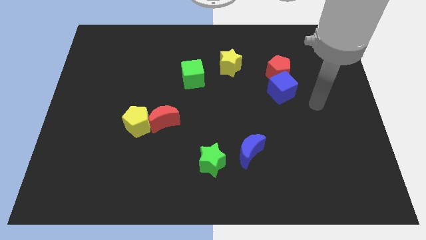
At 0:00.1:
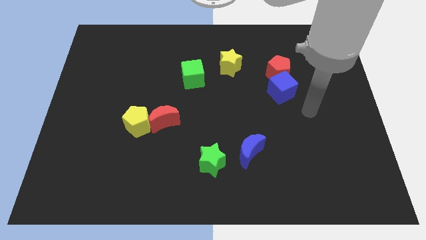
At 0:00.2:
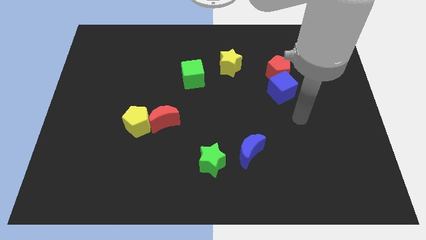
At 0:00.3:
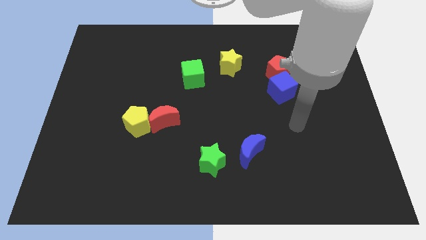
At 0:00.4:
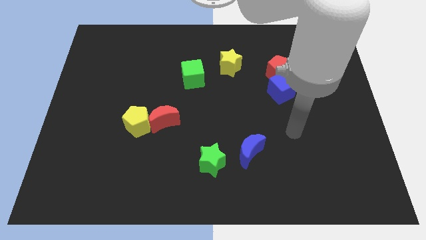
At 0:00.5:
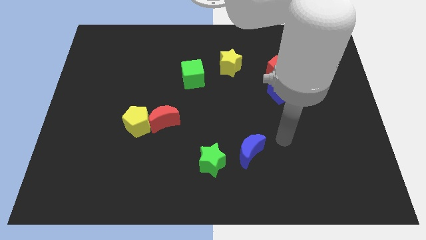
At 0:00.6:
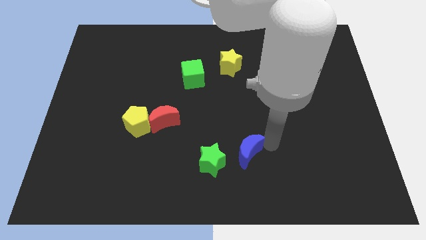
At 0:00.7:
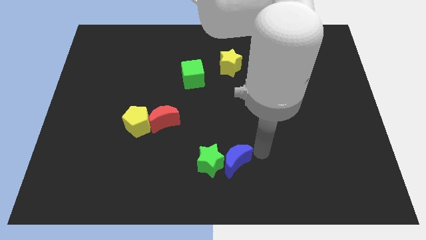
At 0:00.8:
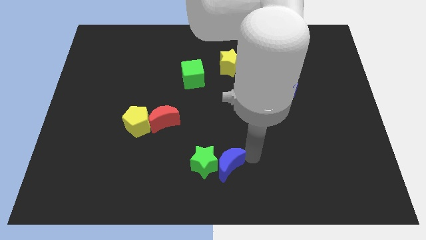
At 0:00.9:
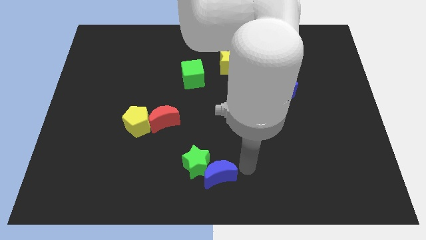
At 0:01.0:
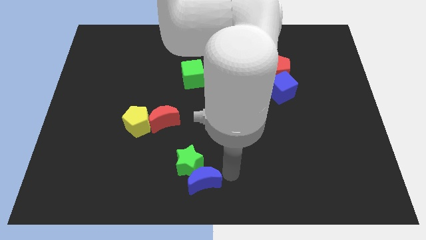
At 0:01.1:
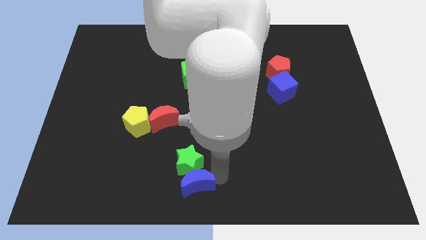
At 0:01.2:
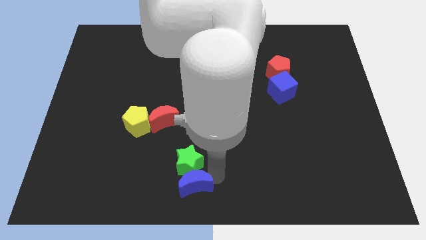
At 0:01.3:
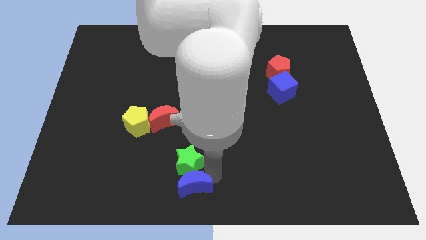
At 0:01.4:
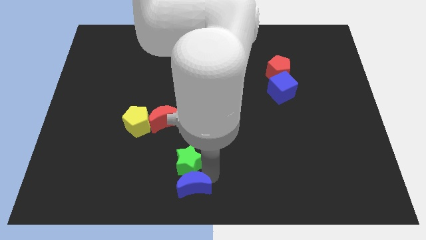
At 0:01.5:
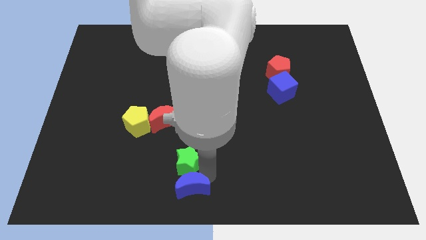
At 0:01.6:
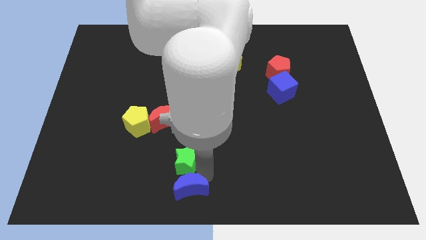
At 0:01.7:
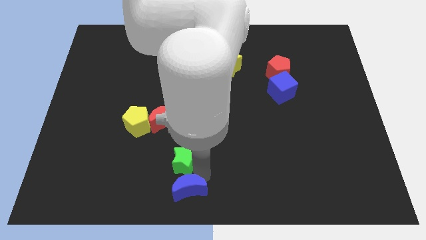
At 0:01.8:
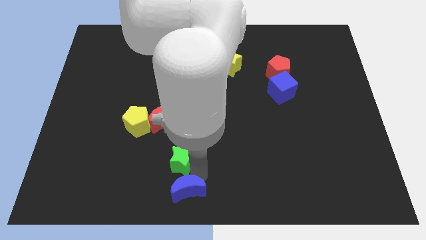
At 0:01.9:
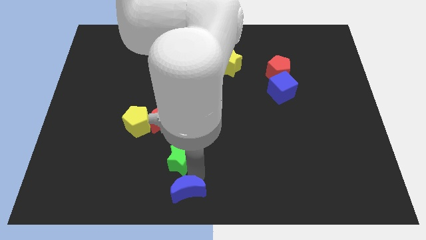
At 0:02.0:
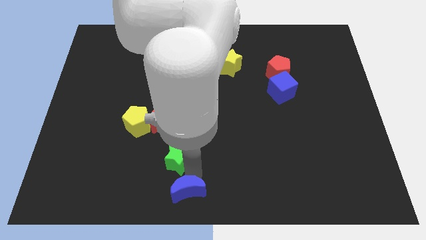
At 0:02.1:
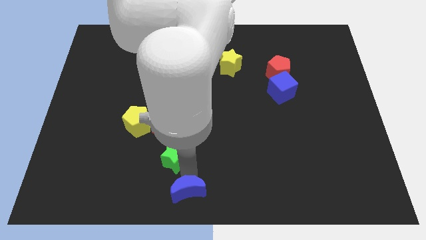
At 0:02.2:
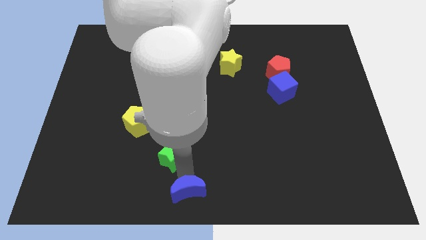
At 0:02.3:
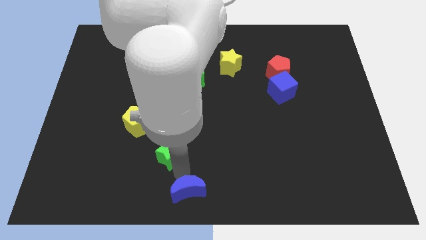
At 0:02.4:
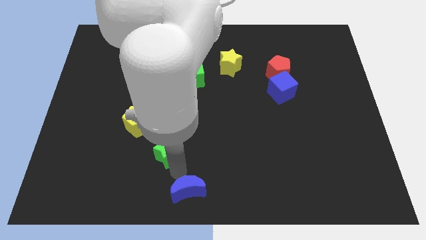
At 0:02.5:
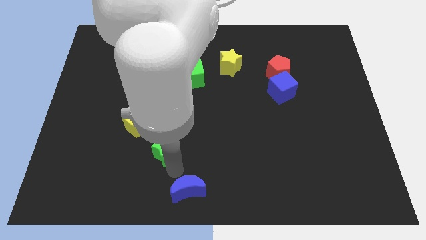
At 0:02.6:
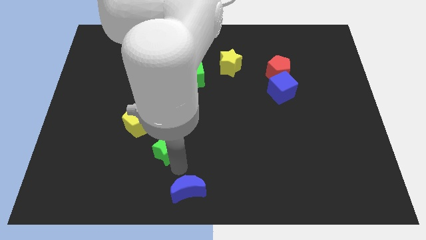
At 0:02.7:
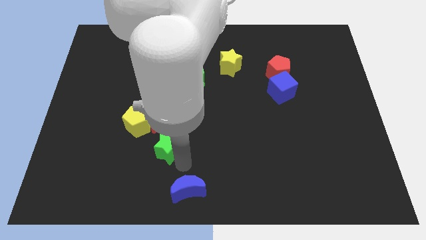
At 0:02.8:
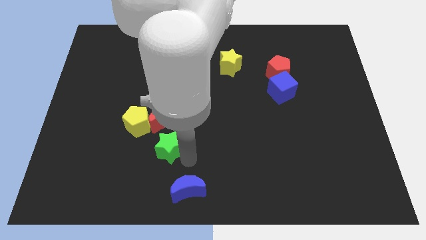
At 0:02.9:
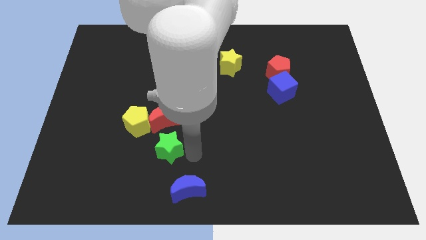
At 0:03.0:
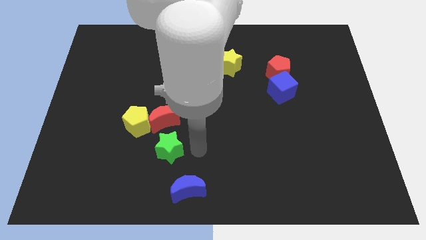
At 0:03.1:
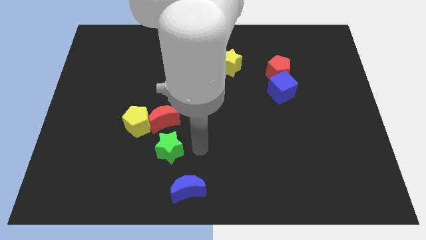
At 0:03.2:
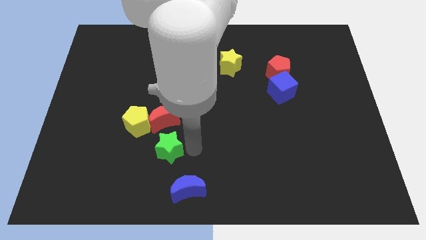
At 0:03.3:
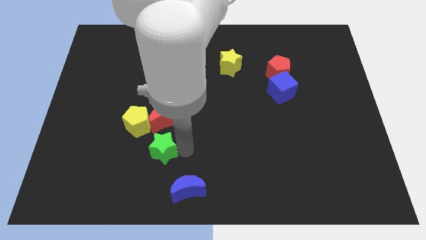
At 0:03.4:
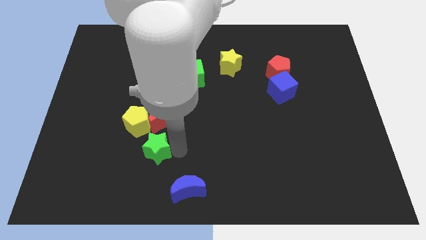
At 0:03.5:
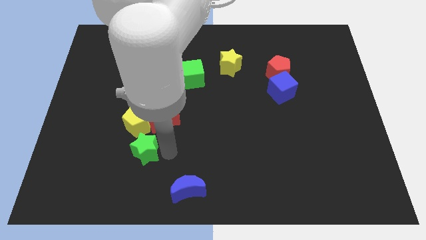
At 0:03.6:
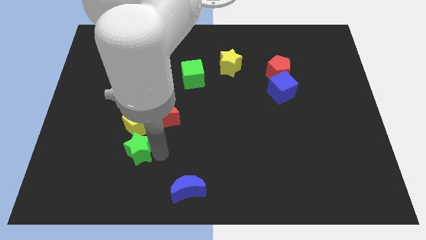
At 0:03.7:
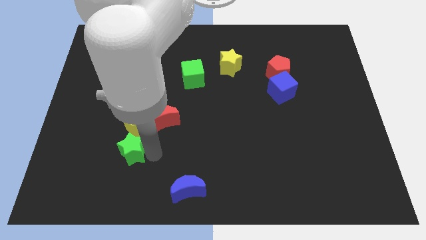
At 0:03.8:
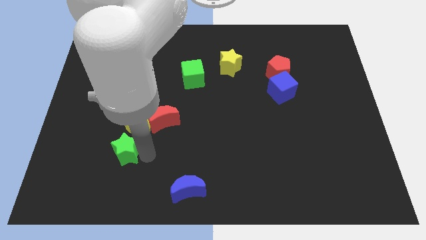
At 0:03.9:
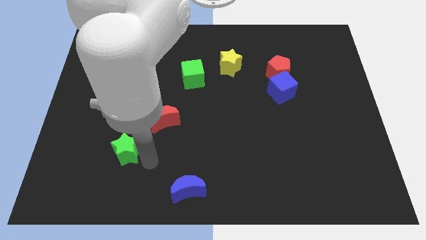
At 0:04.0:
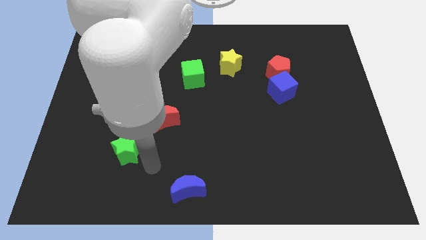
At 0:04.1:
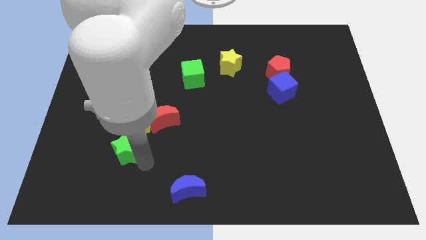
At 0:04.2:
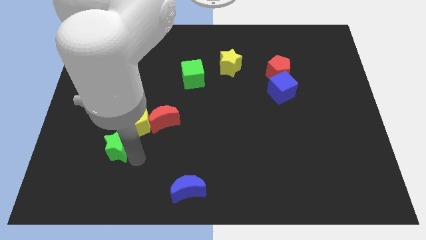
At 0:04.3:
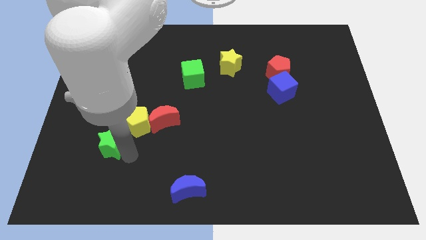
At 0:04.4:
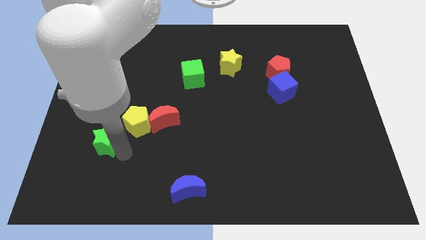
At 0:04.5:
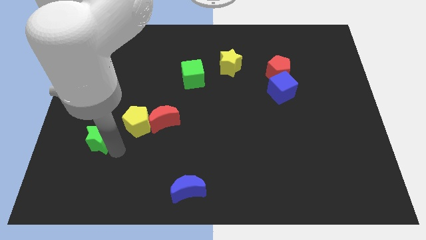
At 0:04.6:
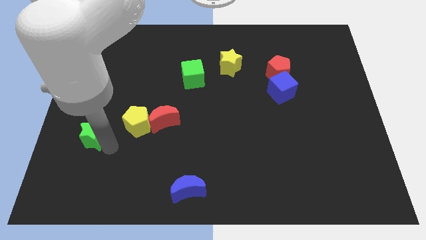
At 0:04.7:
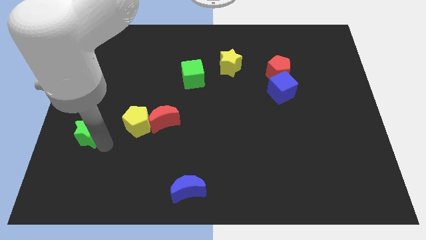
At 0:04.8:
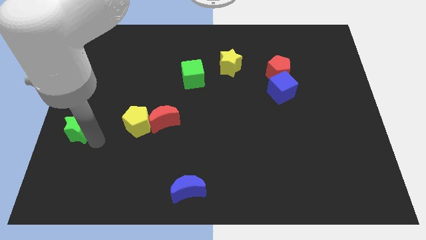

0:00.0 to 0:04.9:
slide the green star to the left side

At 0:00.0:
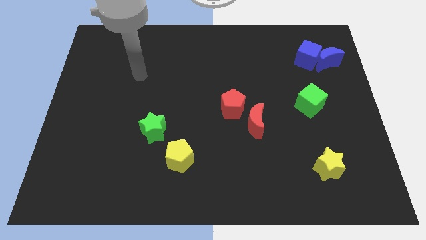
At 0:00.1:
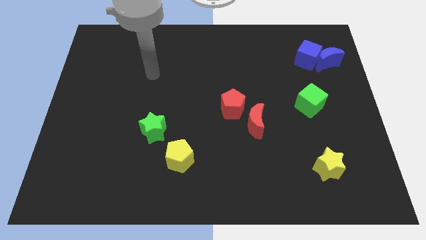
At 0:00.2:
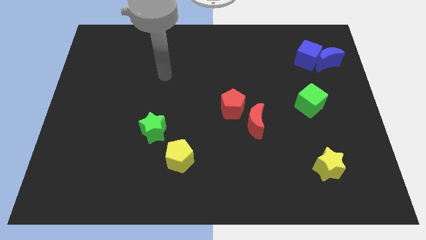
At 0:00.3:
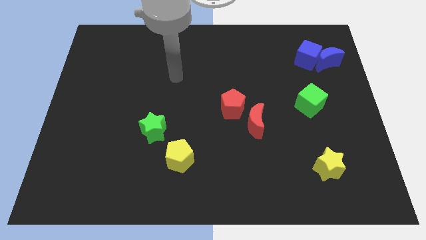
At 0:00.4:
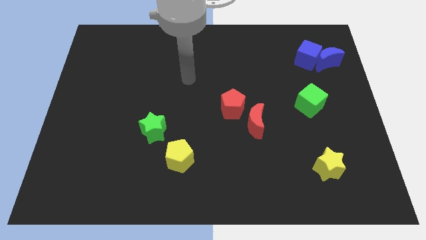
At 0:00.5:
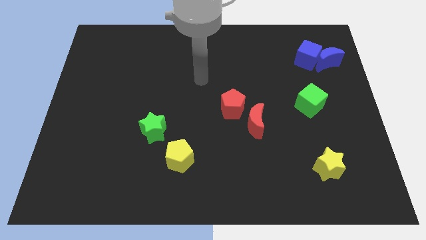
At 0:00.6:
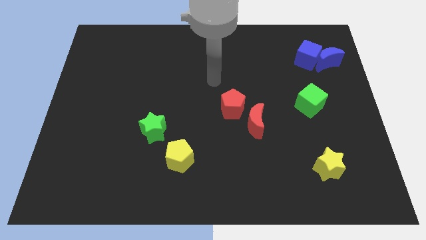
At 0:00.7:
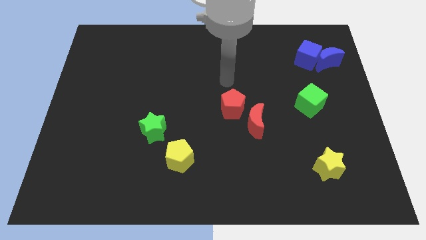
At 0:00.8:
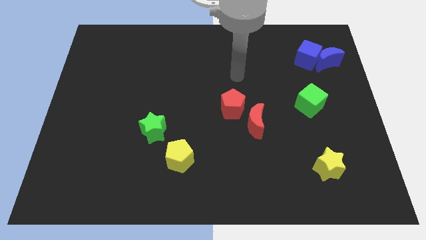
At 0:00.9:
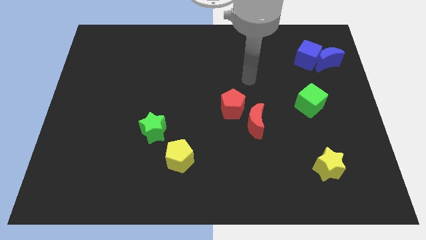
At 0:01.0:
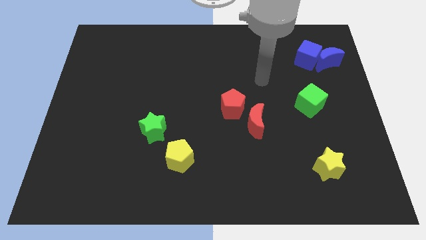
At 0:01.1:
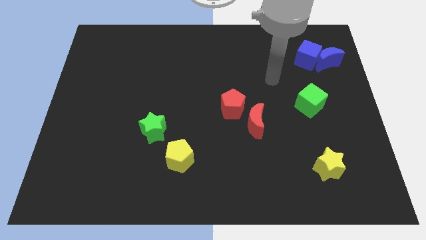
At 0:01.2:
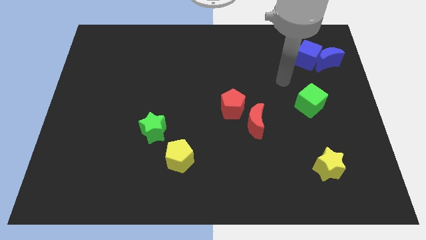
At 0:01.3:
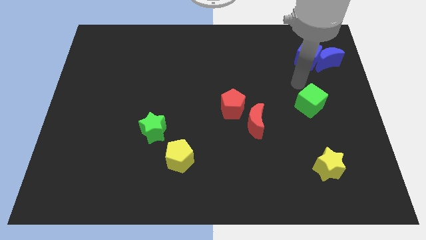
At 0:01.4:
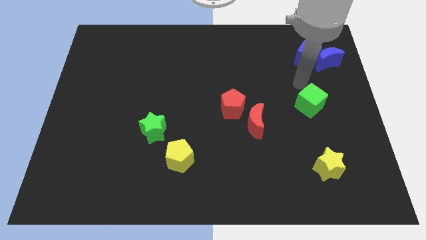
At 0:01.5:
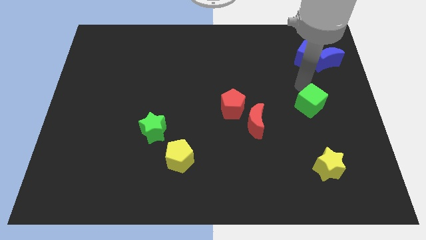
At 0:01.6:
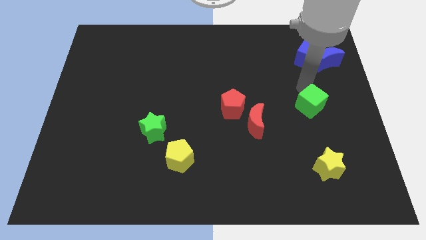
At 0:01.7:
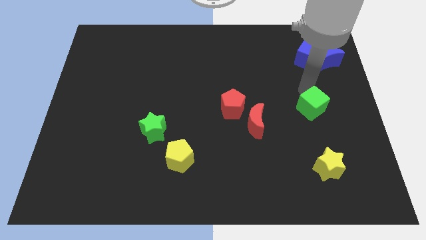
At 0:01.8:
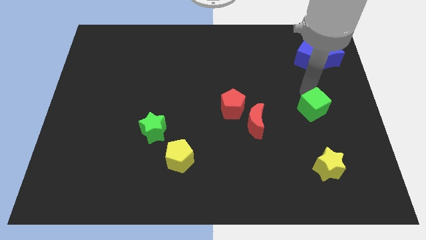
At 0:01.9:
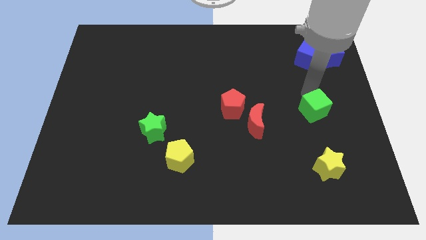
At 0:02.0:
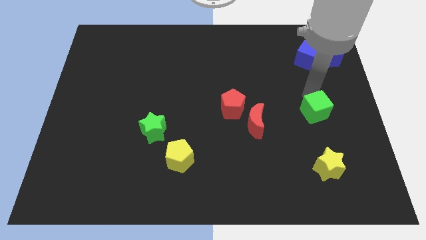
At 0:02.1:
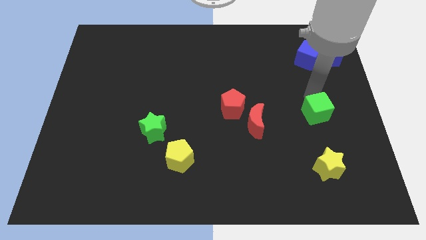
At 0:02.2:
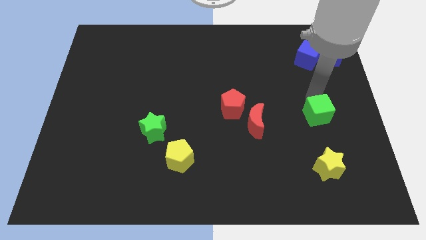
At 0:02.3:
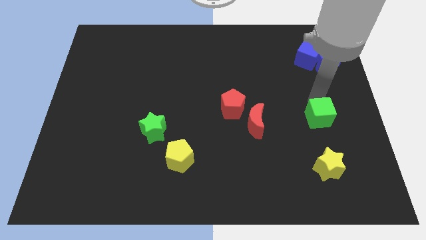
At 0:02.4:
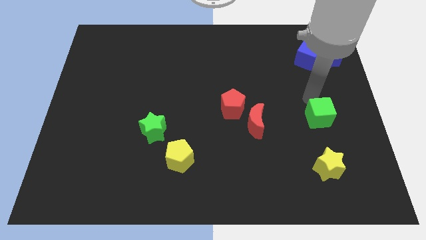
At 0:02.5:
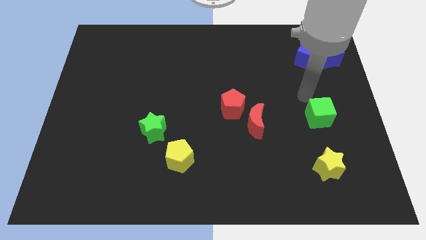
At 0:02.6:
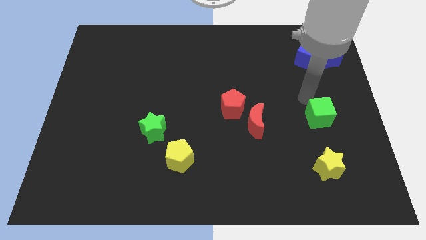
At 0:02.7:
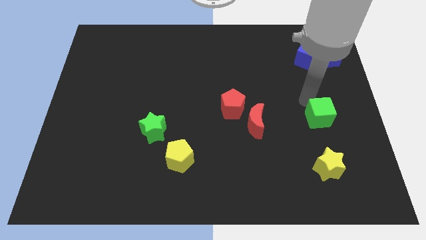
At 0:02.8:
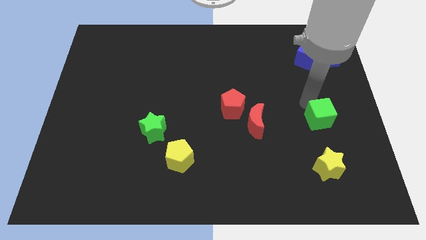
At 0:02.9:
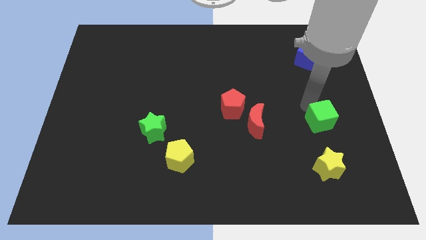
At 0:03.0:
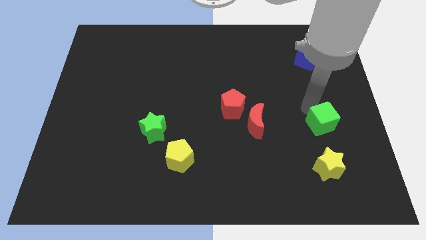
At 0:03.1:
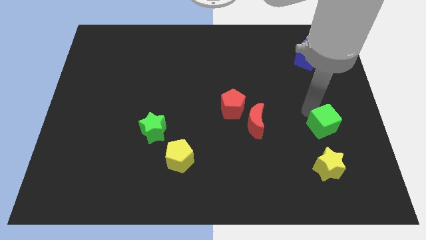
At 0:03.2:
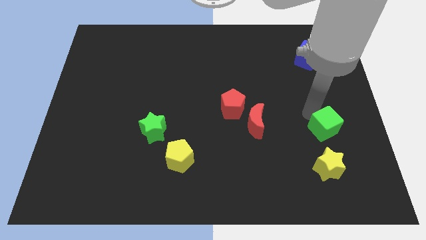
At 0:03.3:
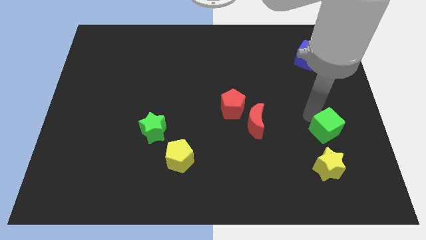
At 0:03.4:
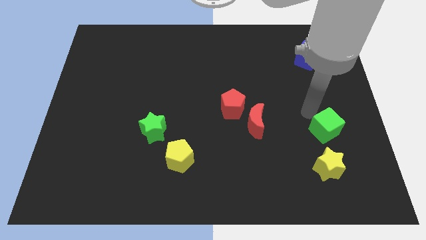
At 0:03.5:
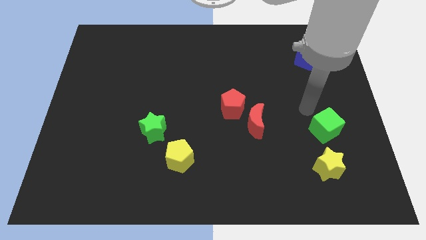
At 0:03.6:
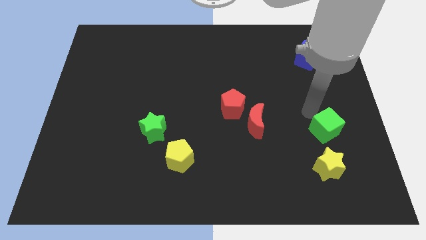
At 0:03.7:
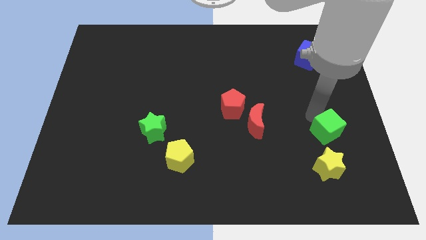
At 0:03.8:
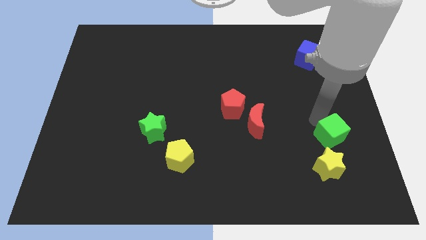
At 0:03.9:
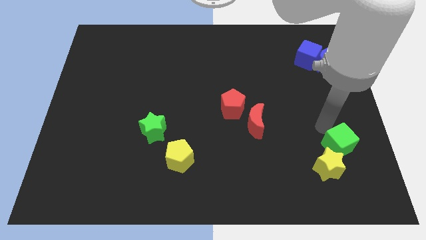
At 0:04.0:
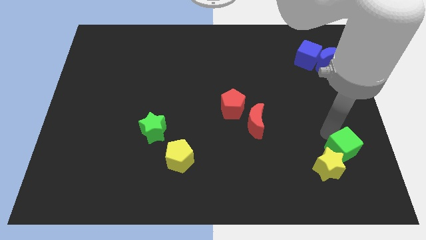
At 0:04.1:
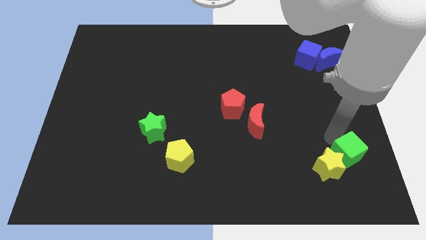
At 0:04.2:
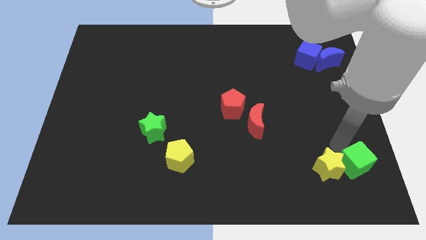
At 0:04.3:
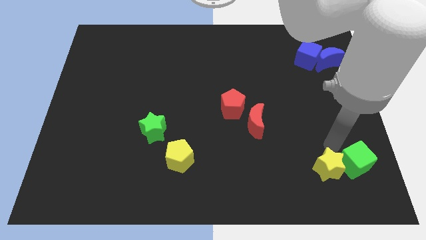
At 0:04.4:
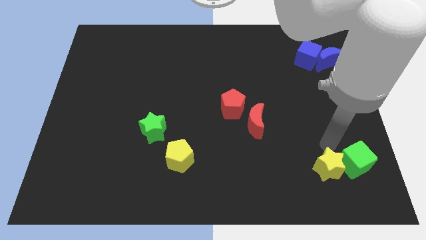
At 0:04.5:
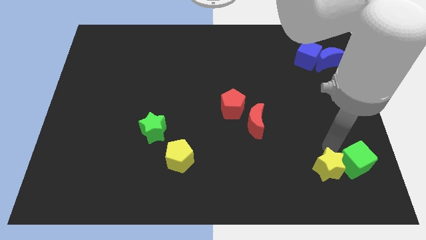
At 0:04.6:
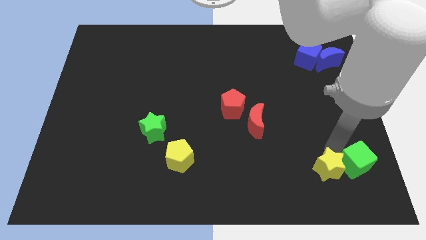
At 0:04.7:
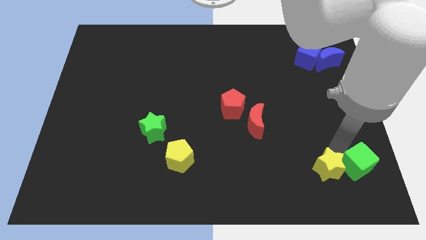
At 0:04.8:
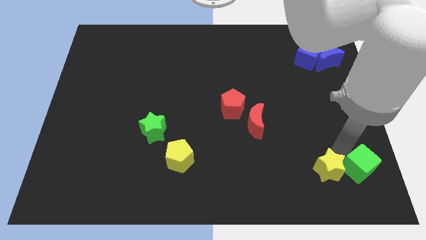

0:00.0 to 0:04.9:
push the green cube to the bottom right corner
